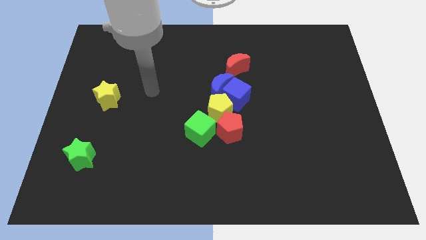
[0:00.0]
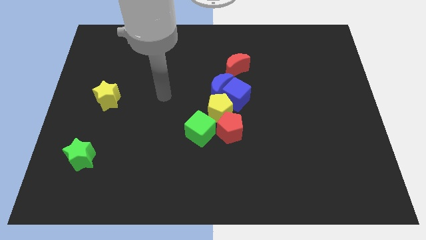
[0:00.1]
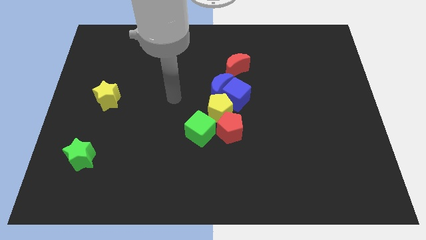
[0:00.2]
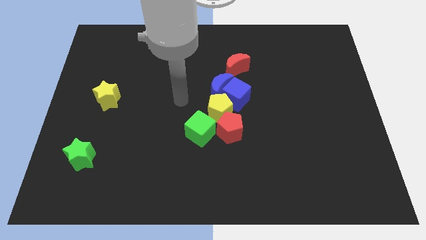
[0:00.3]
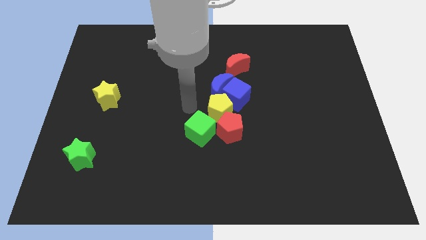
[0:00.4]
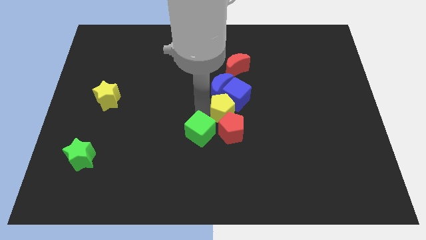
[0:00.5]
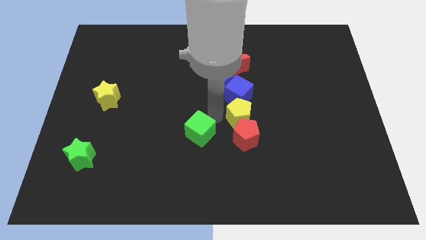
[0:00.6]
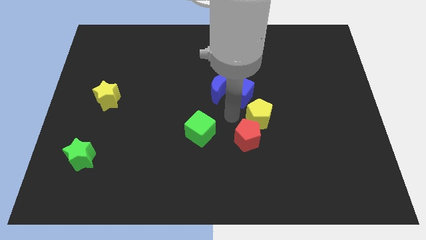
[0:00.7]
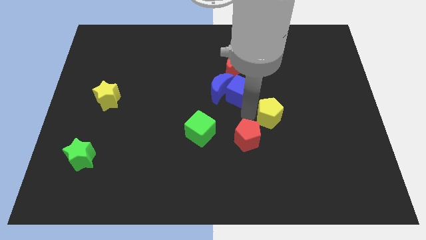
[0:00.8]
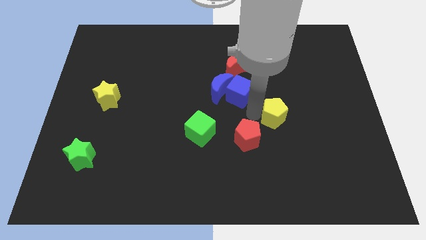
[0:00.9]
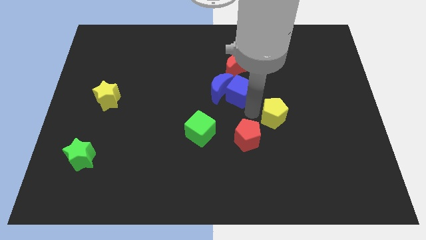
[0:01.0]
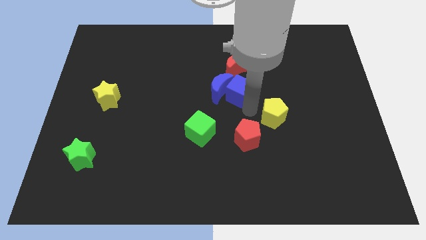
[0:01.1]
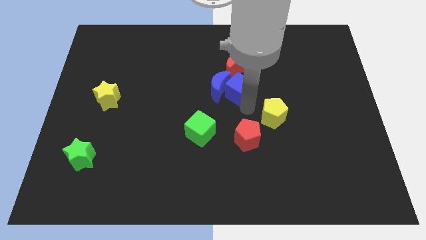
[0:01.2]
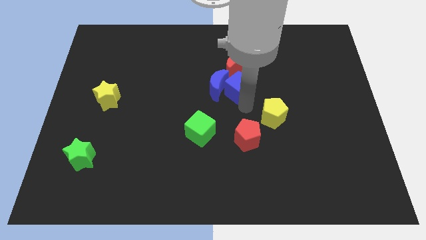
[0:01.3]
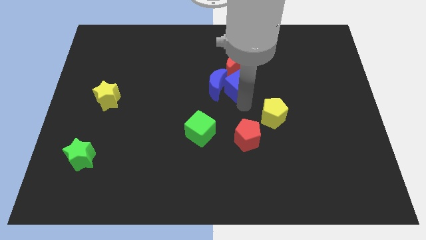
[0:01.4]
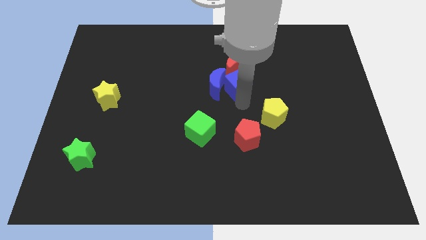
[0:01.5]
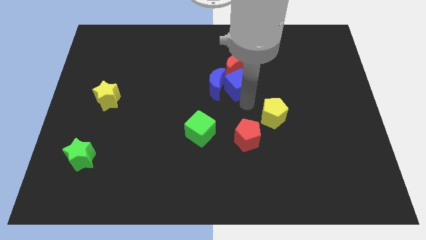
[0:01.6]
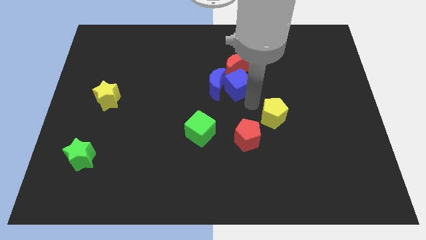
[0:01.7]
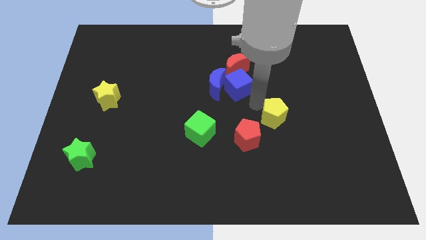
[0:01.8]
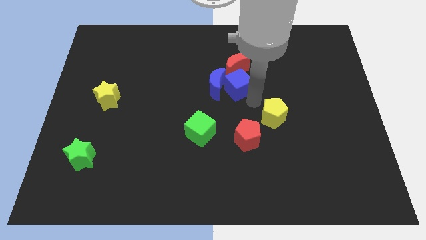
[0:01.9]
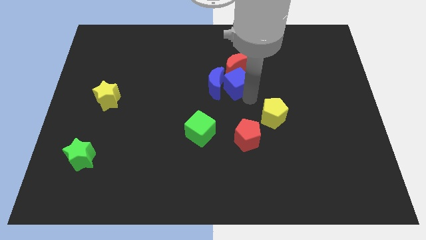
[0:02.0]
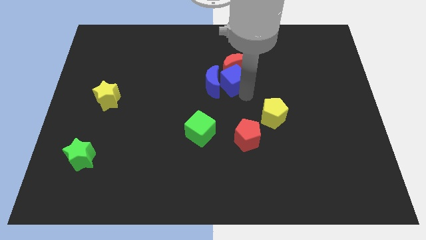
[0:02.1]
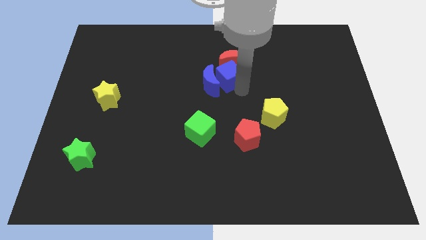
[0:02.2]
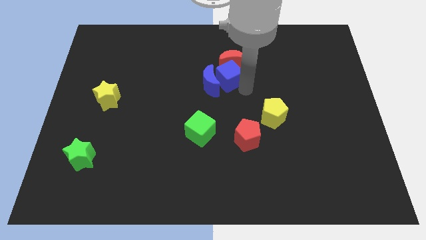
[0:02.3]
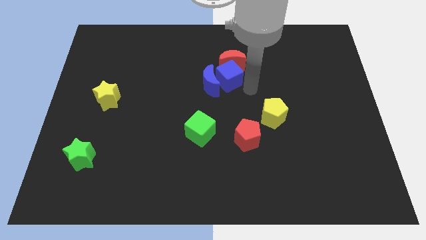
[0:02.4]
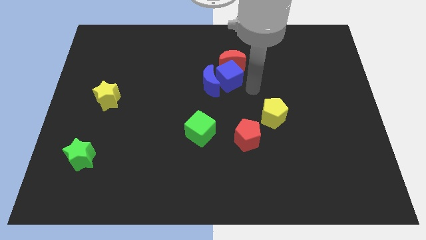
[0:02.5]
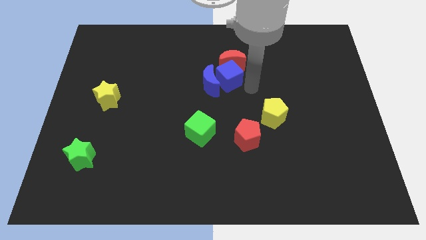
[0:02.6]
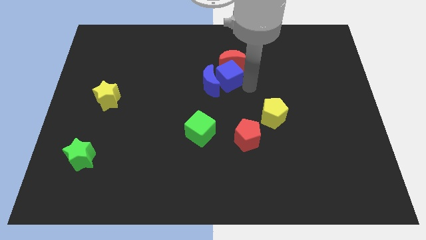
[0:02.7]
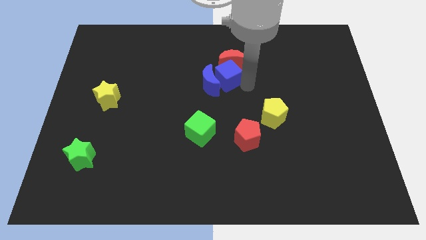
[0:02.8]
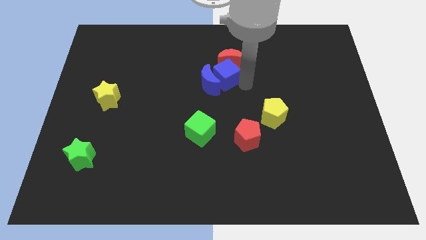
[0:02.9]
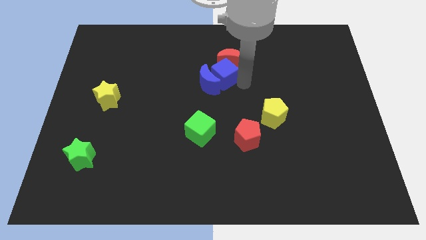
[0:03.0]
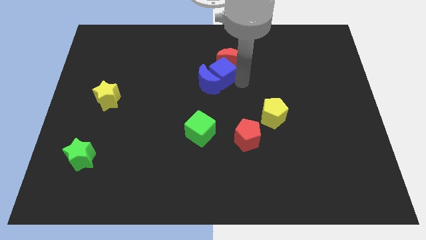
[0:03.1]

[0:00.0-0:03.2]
push the blue cube diagonally upwards and left a little bit

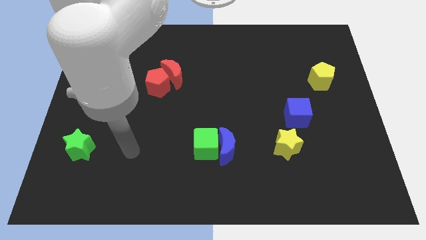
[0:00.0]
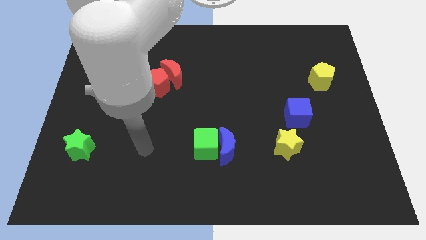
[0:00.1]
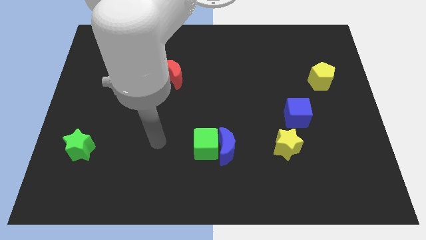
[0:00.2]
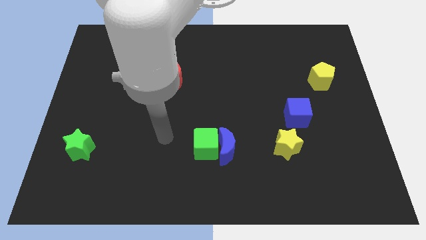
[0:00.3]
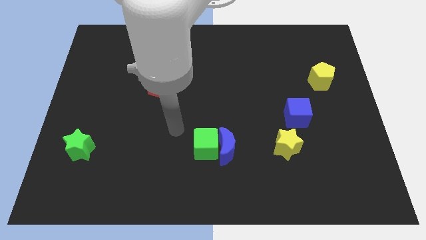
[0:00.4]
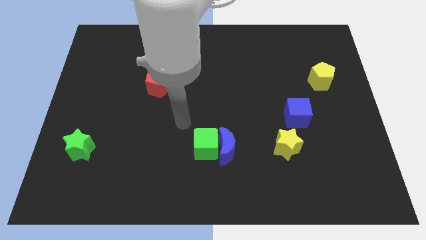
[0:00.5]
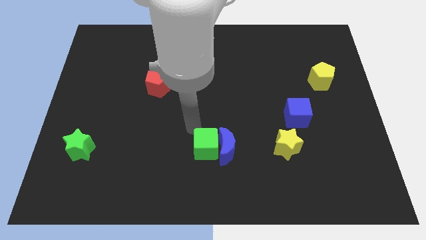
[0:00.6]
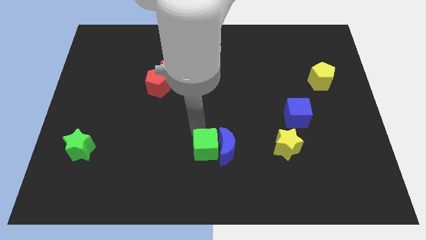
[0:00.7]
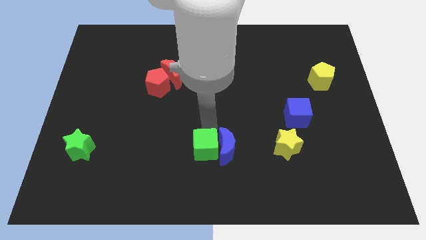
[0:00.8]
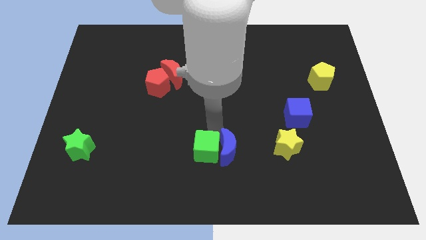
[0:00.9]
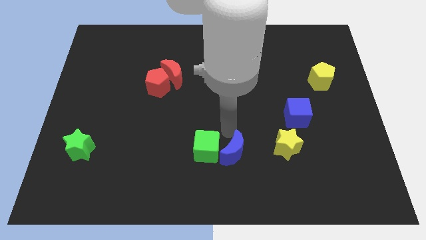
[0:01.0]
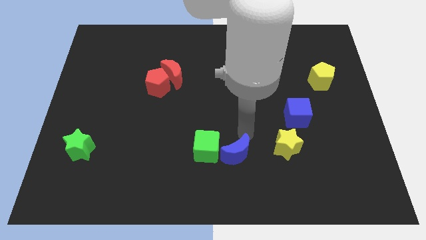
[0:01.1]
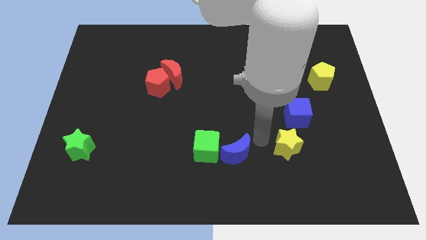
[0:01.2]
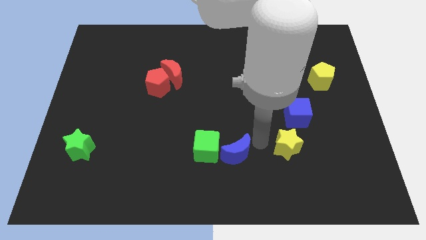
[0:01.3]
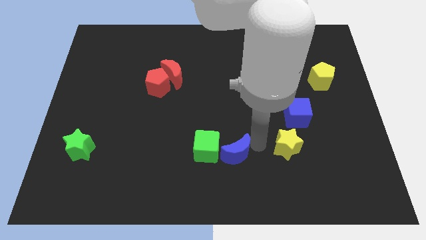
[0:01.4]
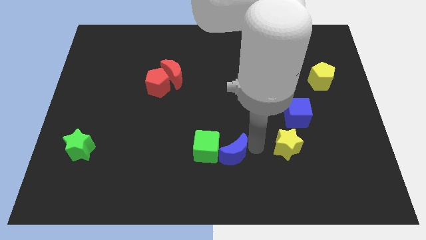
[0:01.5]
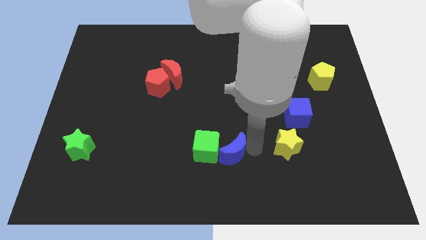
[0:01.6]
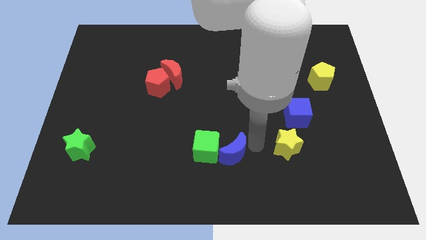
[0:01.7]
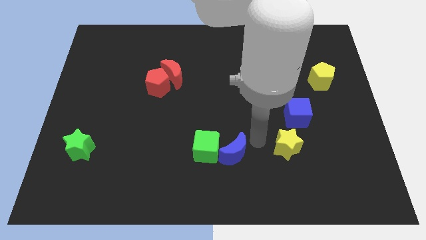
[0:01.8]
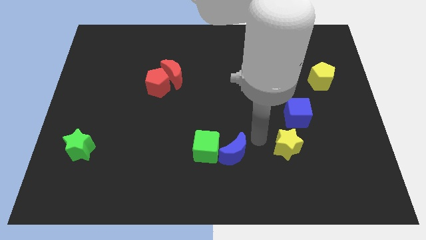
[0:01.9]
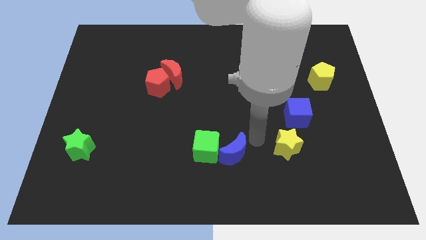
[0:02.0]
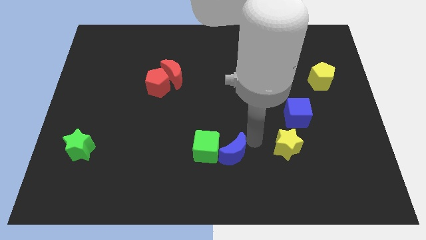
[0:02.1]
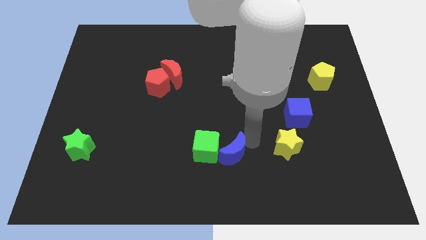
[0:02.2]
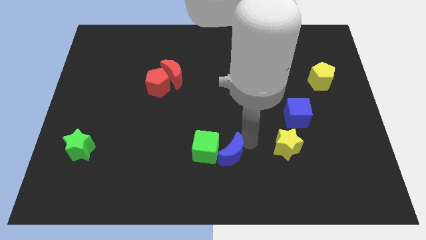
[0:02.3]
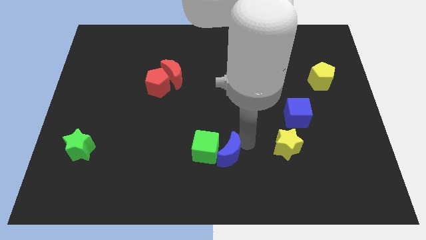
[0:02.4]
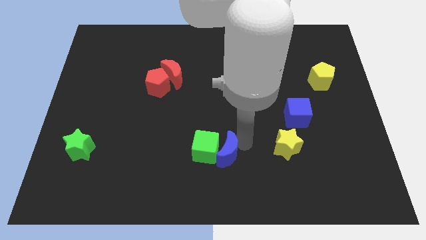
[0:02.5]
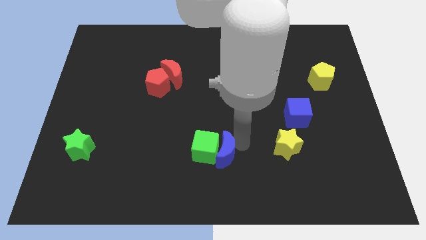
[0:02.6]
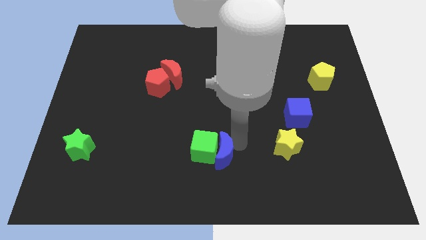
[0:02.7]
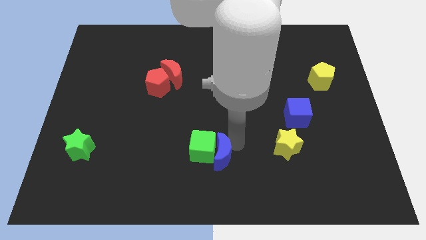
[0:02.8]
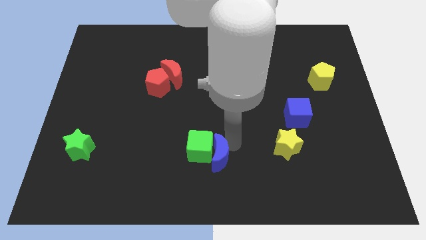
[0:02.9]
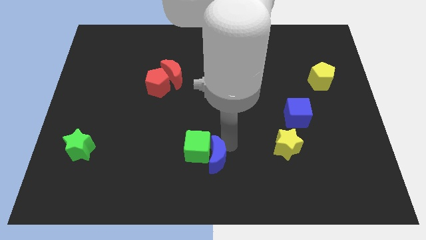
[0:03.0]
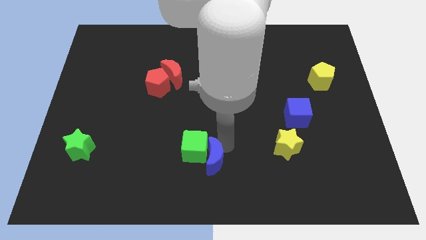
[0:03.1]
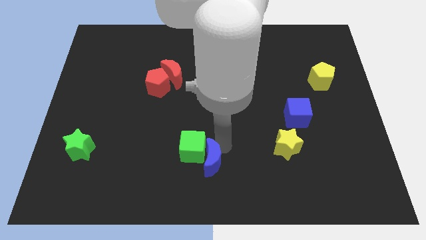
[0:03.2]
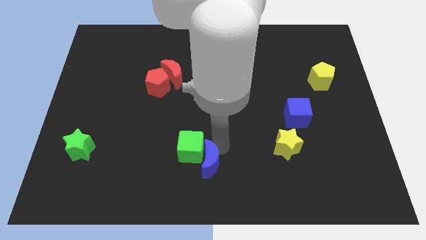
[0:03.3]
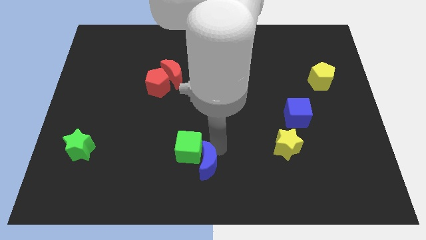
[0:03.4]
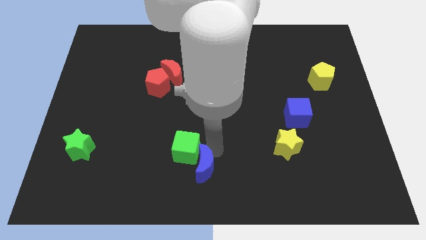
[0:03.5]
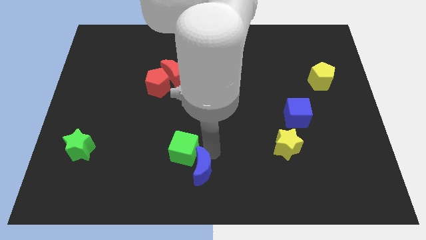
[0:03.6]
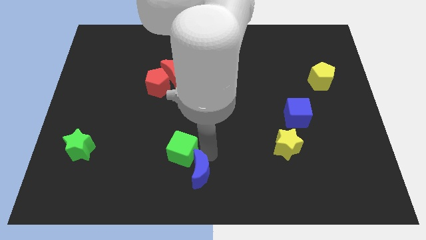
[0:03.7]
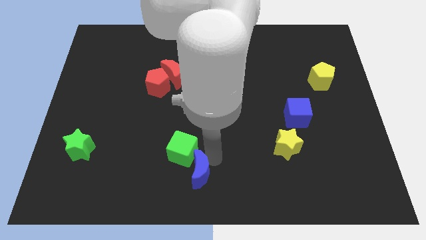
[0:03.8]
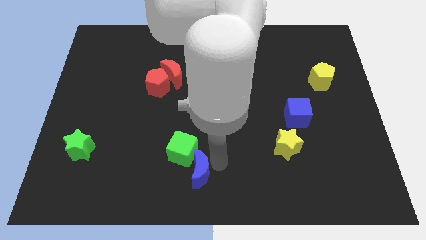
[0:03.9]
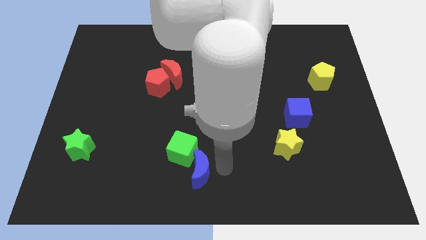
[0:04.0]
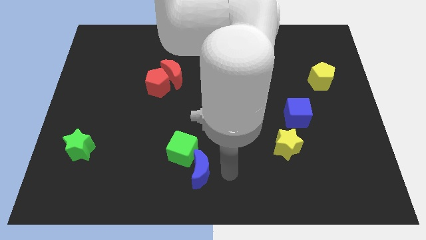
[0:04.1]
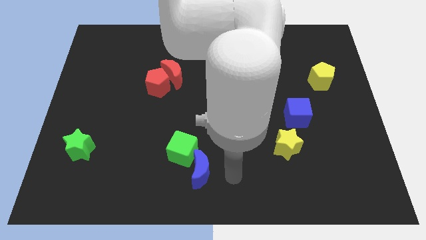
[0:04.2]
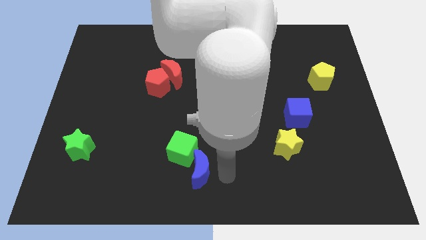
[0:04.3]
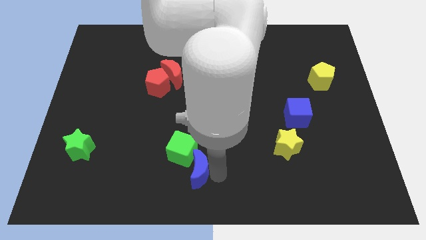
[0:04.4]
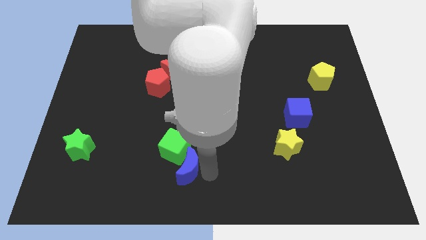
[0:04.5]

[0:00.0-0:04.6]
push the blue moon to the left somewhat
